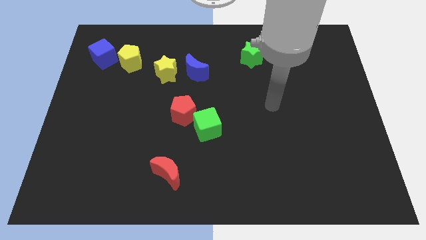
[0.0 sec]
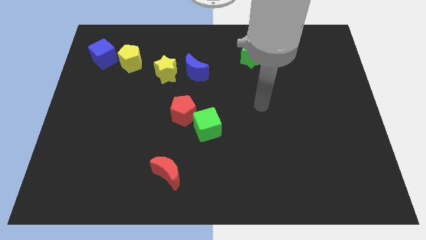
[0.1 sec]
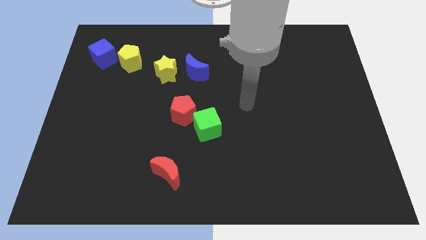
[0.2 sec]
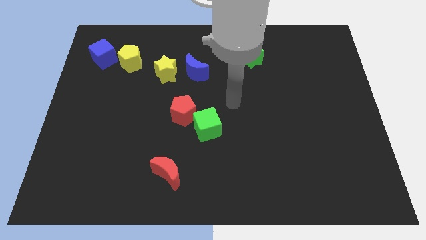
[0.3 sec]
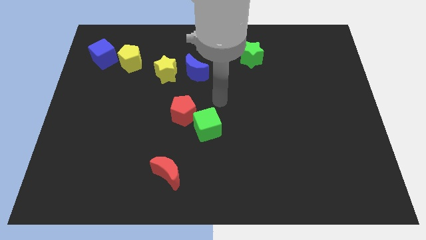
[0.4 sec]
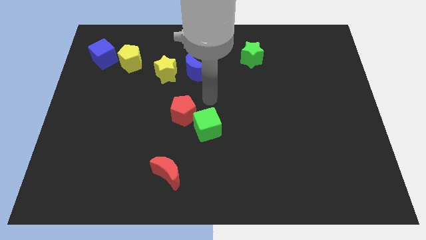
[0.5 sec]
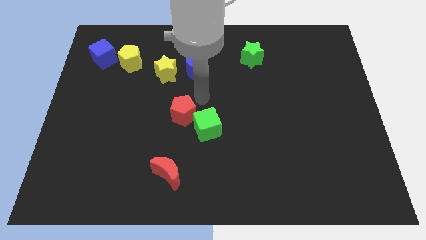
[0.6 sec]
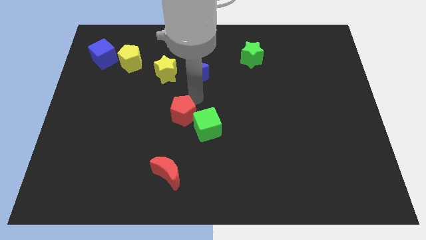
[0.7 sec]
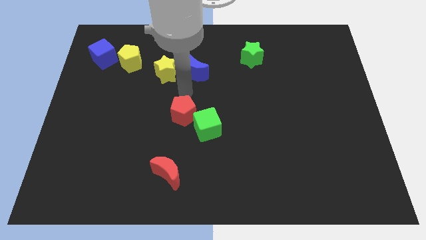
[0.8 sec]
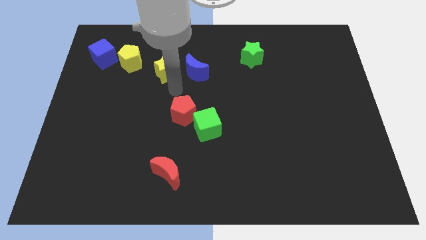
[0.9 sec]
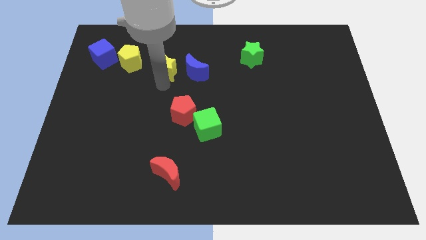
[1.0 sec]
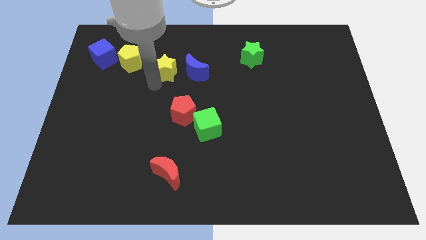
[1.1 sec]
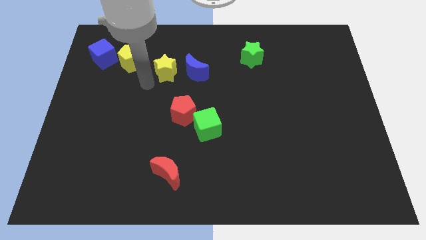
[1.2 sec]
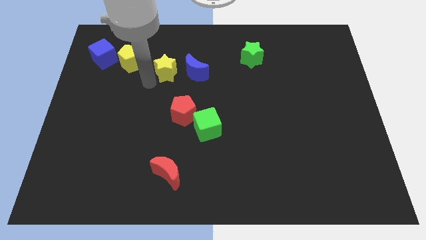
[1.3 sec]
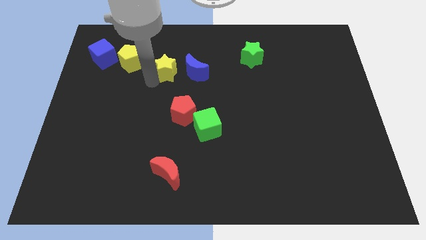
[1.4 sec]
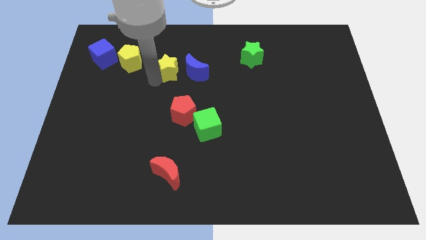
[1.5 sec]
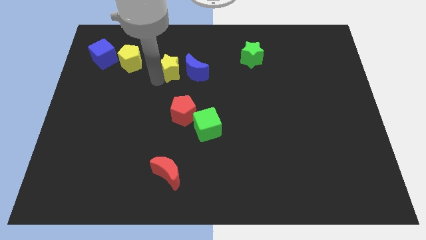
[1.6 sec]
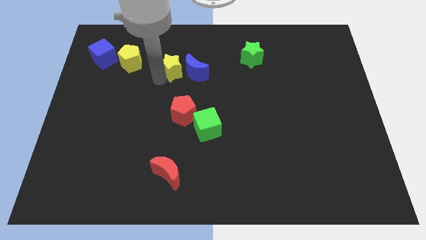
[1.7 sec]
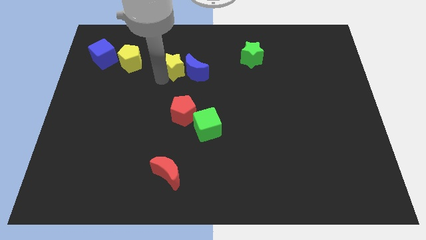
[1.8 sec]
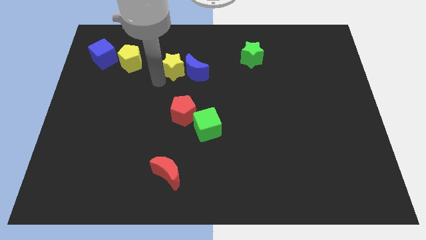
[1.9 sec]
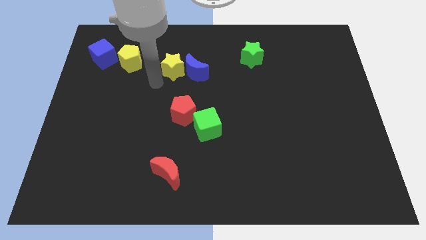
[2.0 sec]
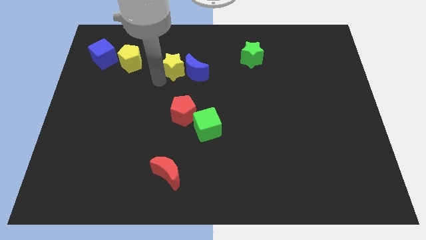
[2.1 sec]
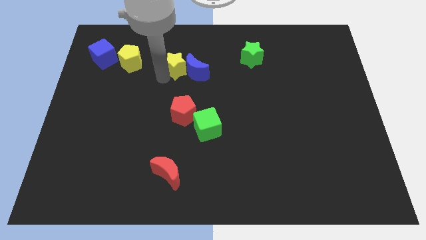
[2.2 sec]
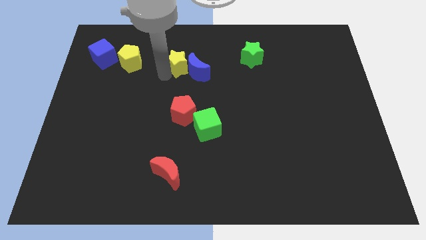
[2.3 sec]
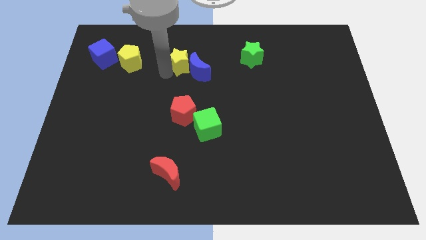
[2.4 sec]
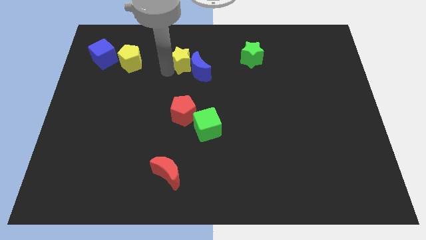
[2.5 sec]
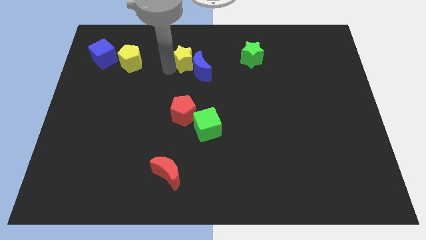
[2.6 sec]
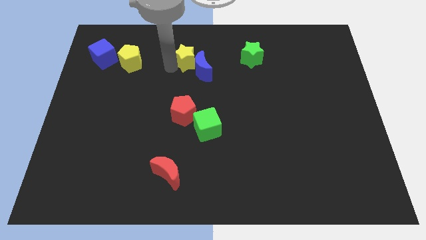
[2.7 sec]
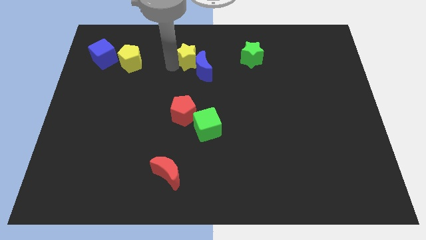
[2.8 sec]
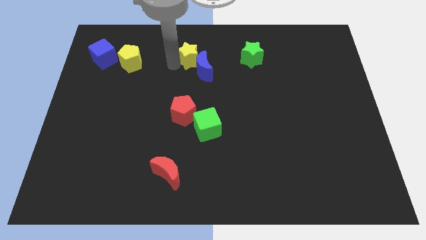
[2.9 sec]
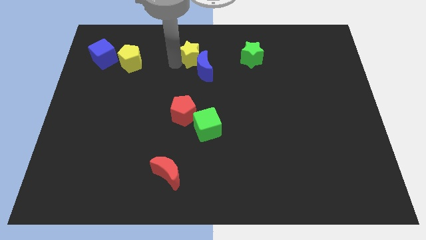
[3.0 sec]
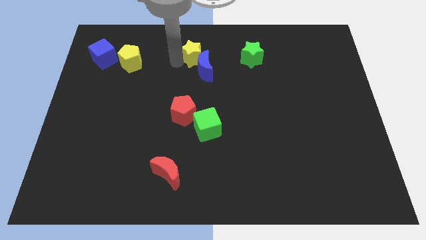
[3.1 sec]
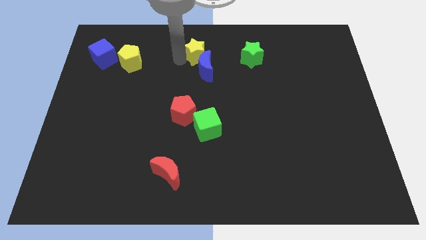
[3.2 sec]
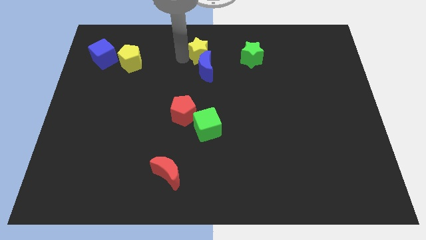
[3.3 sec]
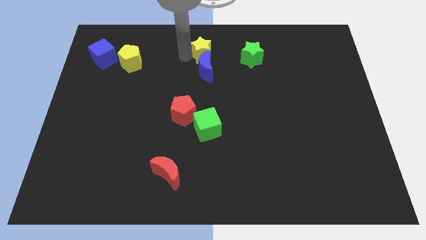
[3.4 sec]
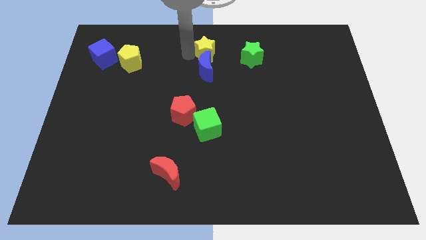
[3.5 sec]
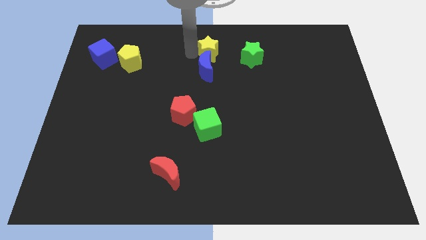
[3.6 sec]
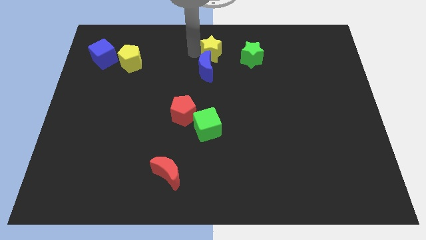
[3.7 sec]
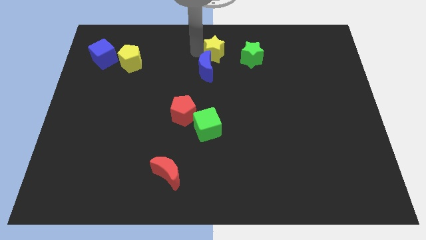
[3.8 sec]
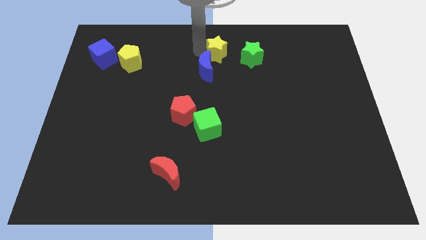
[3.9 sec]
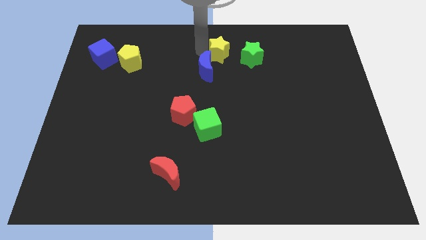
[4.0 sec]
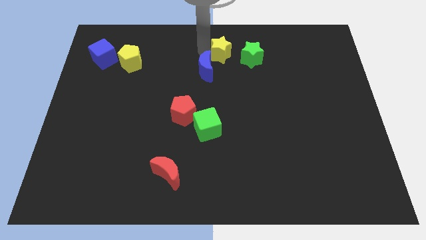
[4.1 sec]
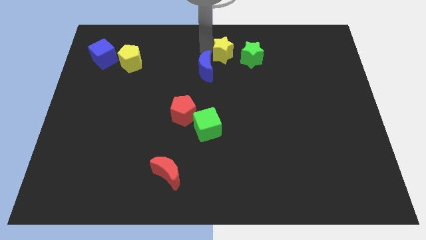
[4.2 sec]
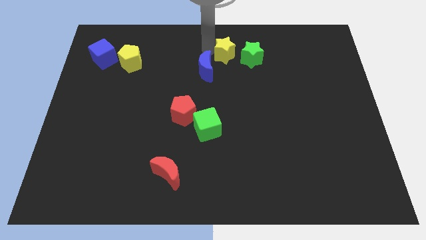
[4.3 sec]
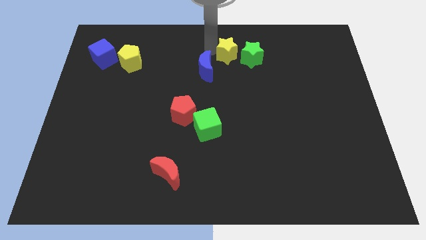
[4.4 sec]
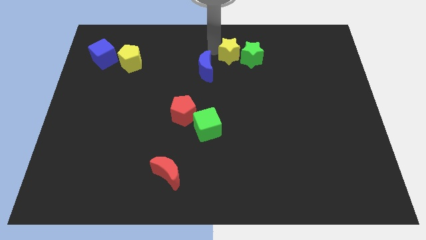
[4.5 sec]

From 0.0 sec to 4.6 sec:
put the yellow star close to the green star

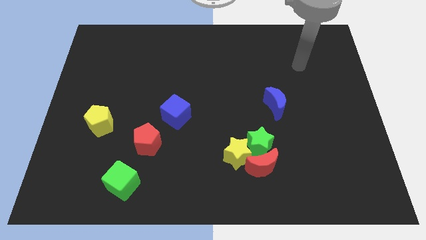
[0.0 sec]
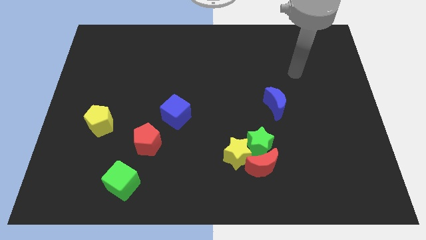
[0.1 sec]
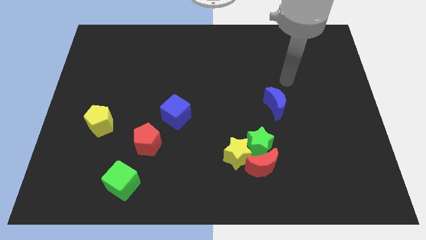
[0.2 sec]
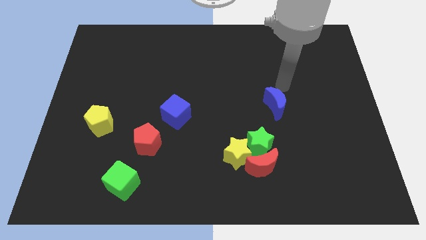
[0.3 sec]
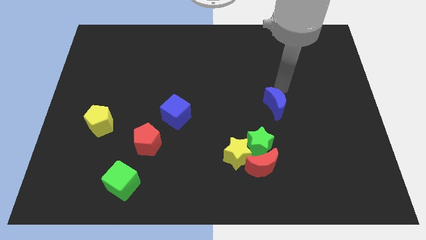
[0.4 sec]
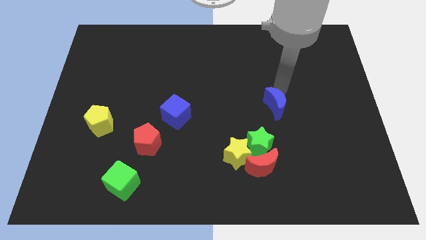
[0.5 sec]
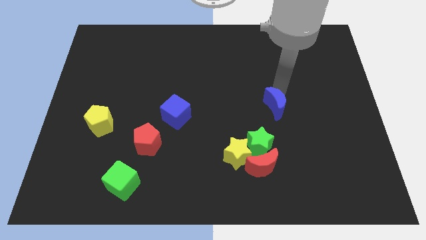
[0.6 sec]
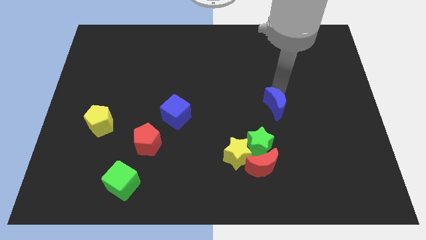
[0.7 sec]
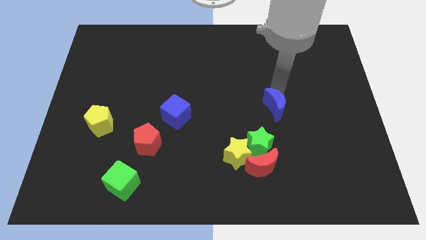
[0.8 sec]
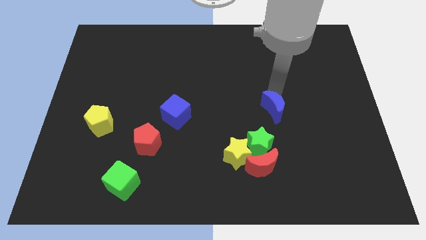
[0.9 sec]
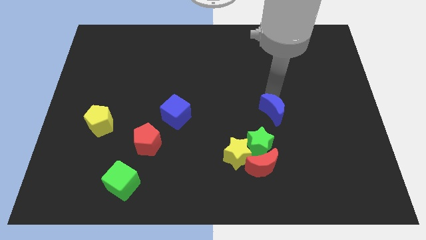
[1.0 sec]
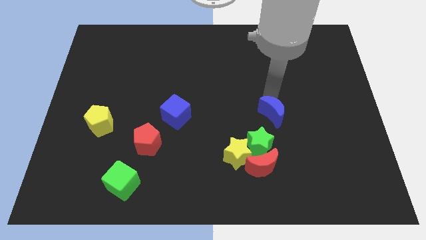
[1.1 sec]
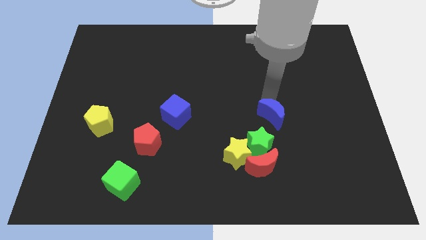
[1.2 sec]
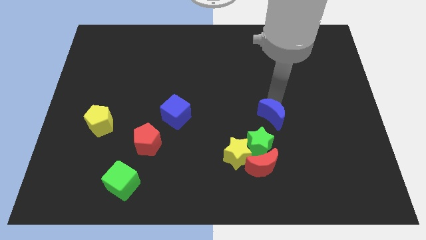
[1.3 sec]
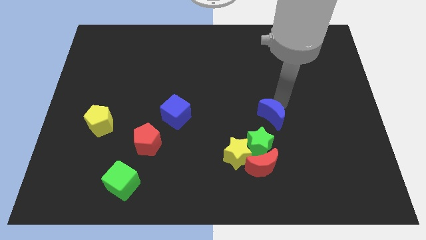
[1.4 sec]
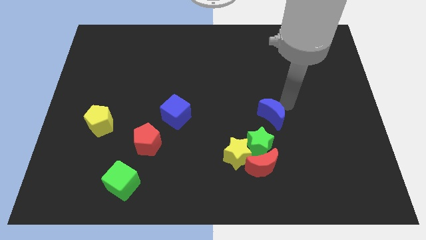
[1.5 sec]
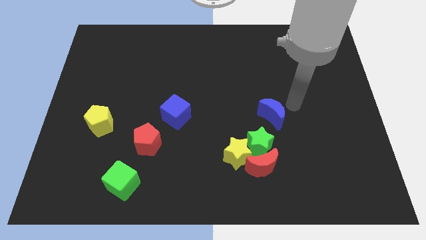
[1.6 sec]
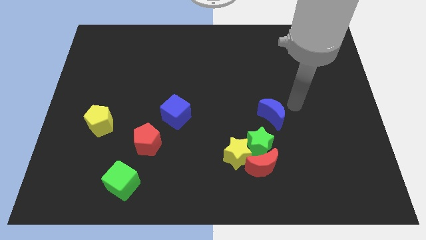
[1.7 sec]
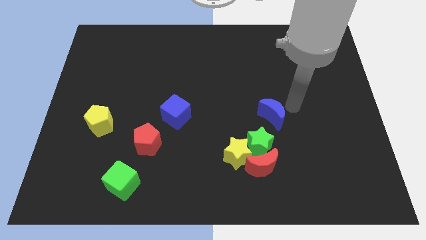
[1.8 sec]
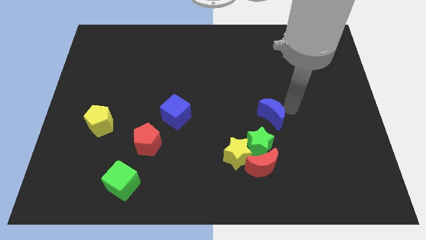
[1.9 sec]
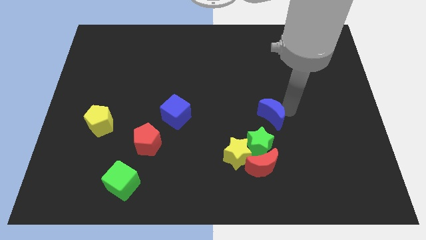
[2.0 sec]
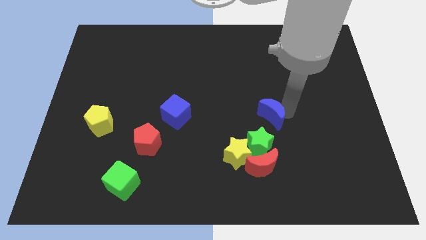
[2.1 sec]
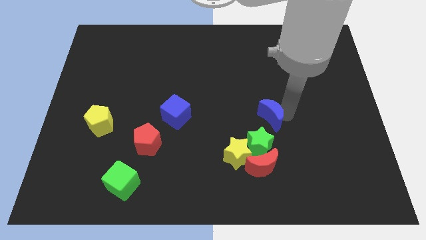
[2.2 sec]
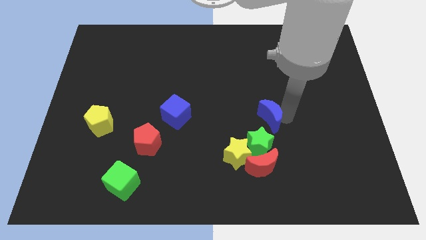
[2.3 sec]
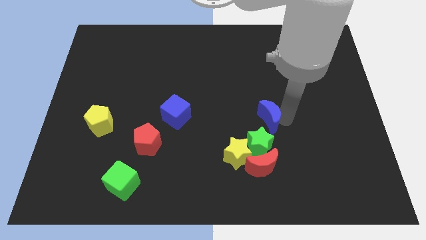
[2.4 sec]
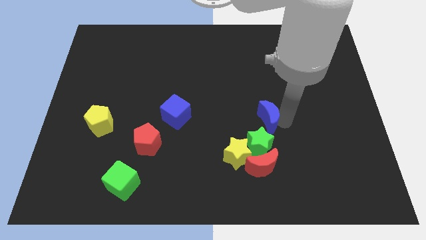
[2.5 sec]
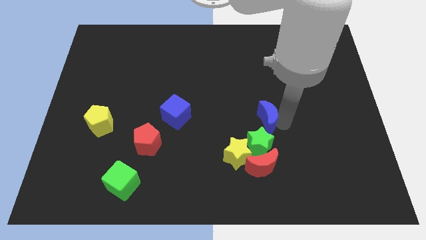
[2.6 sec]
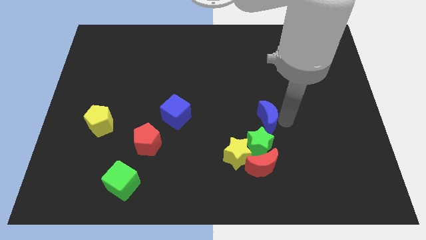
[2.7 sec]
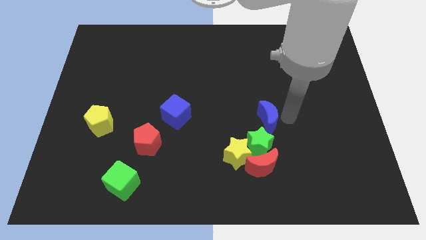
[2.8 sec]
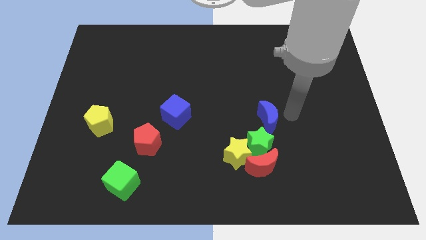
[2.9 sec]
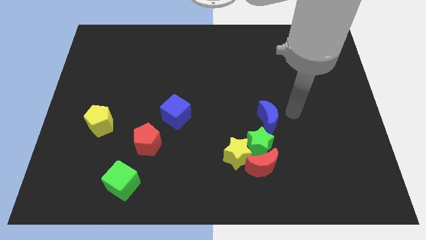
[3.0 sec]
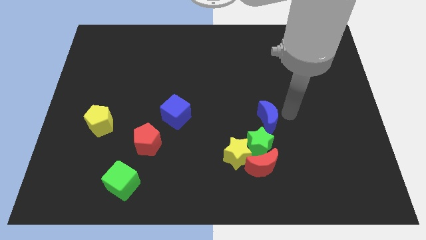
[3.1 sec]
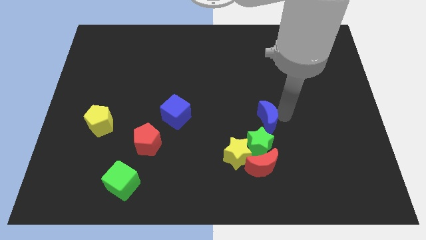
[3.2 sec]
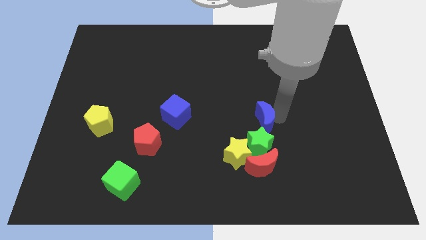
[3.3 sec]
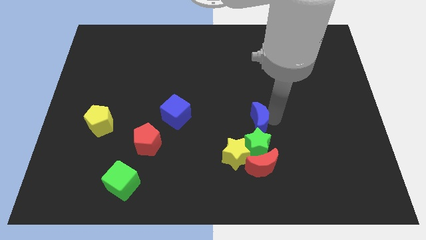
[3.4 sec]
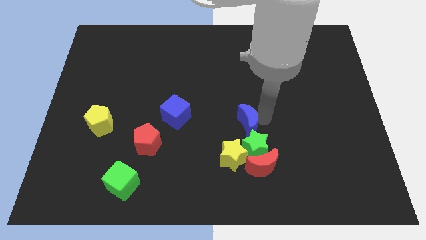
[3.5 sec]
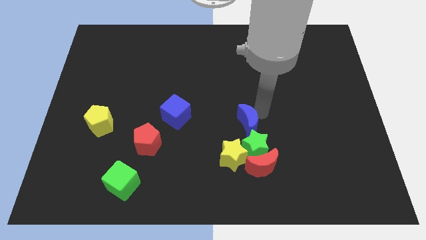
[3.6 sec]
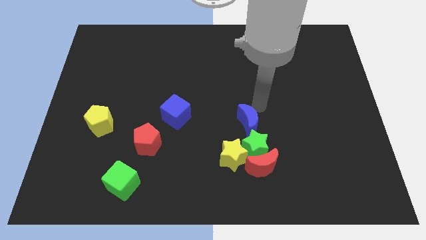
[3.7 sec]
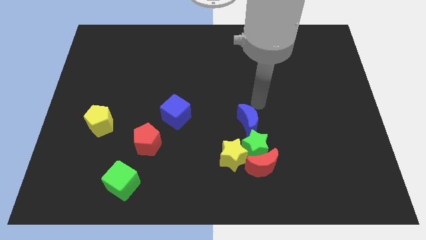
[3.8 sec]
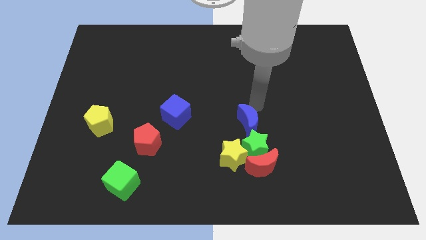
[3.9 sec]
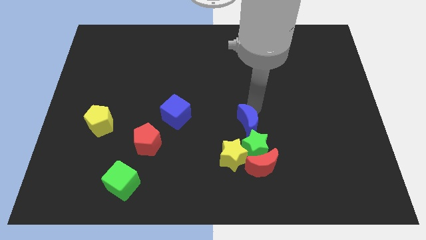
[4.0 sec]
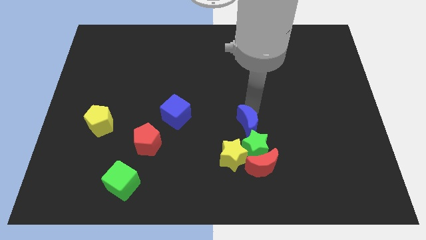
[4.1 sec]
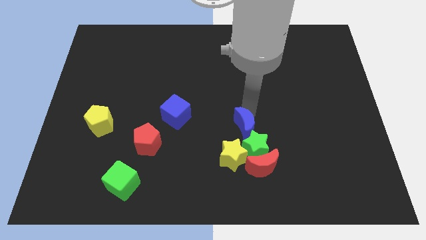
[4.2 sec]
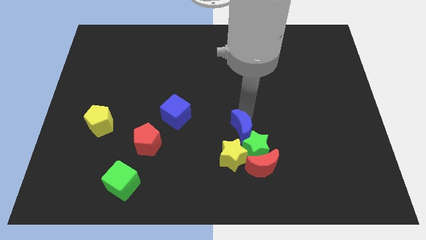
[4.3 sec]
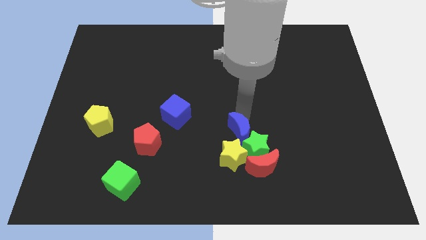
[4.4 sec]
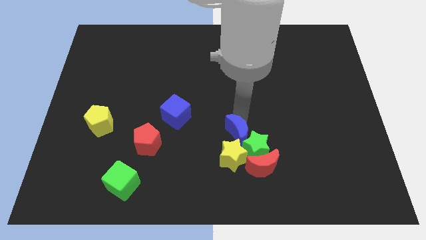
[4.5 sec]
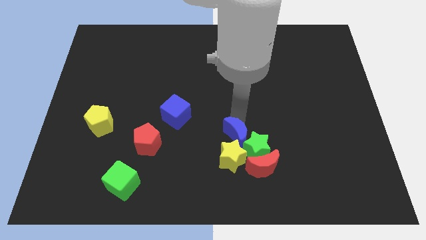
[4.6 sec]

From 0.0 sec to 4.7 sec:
put the blue moon towards the yellow star
